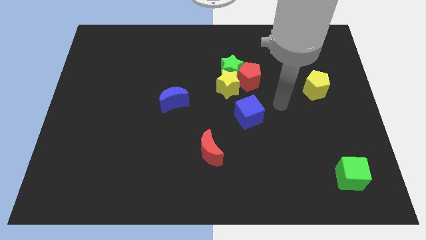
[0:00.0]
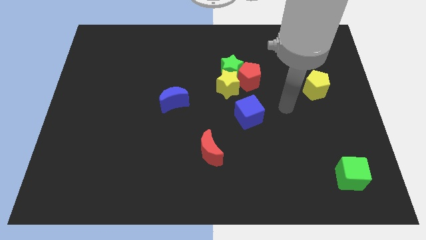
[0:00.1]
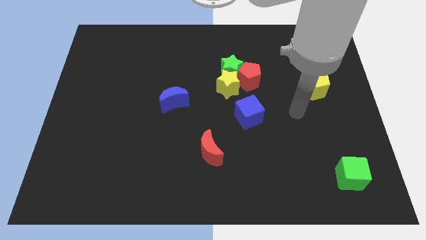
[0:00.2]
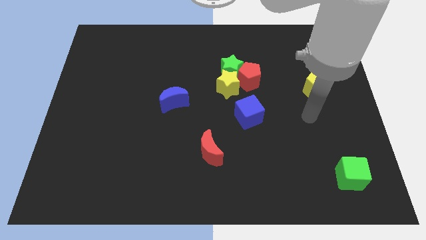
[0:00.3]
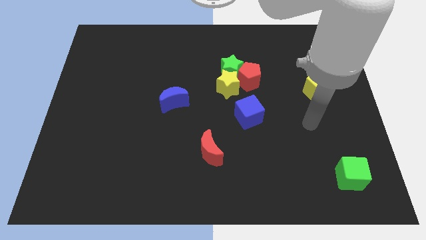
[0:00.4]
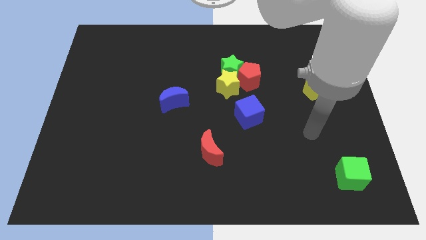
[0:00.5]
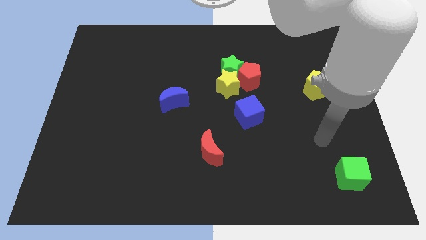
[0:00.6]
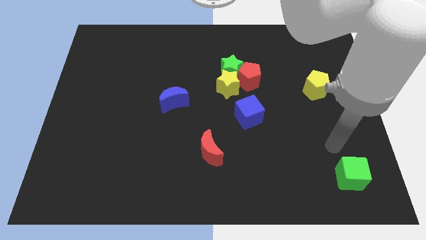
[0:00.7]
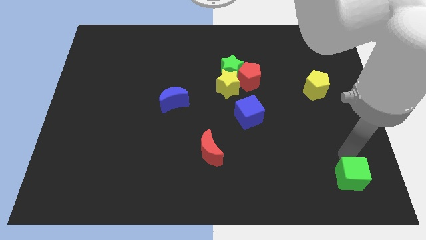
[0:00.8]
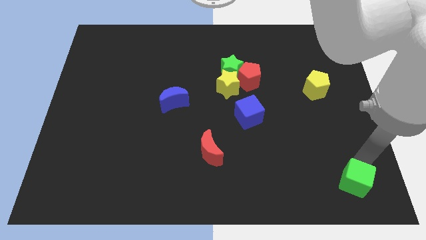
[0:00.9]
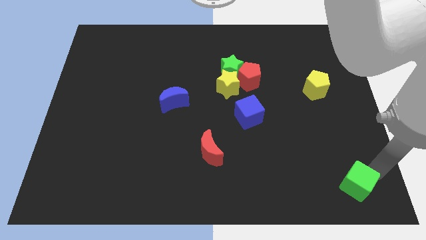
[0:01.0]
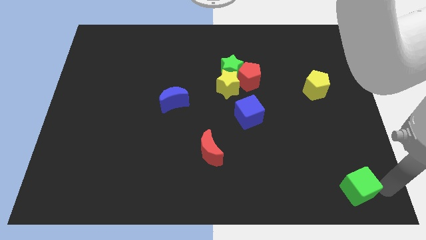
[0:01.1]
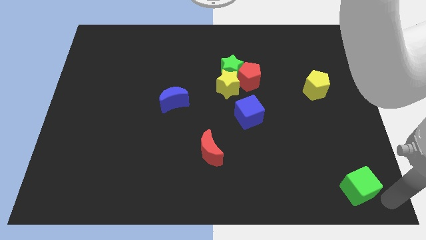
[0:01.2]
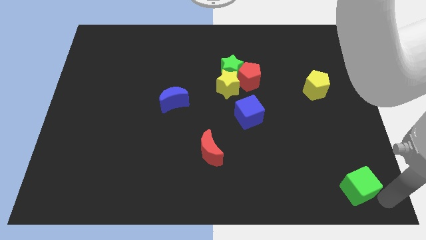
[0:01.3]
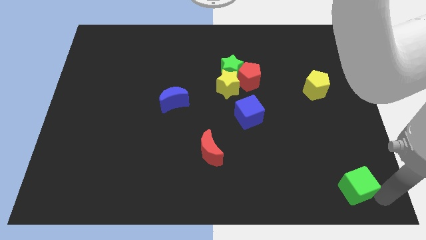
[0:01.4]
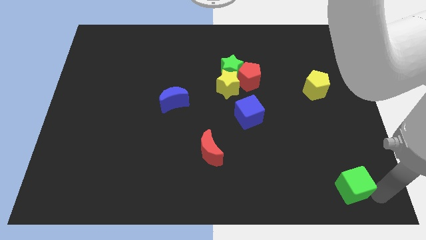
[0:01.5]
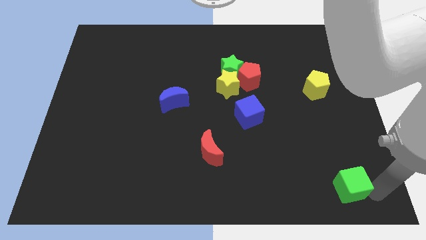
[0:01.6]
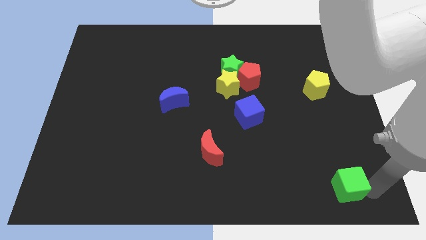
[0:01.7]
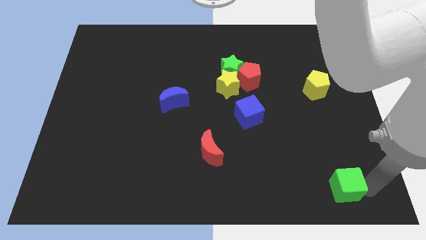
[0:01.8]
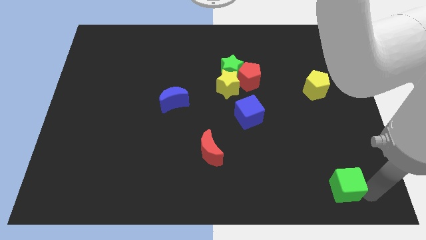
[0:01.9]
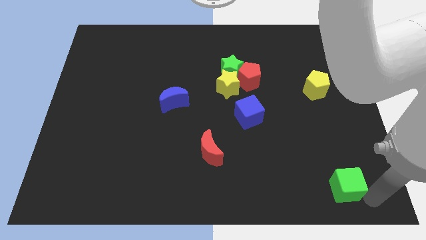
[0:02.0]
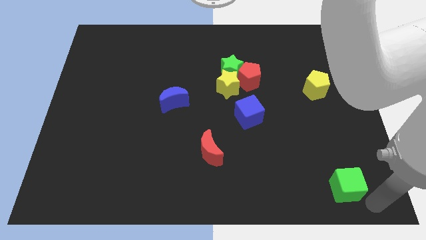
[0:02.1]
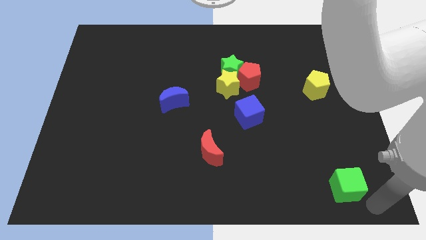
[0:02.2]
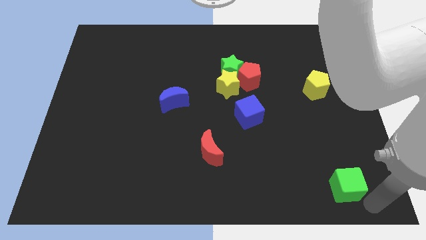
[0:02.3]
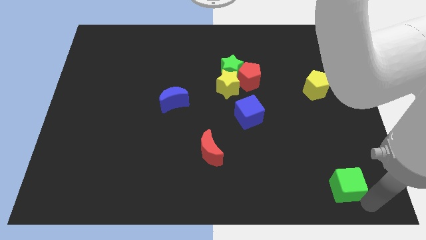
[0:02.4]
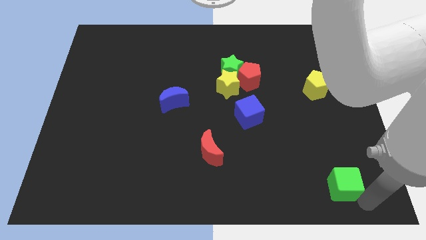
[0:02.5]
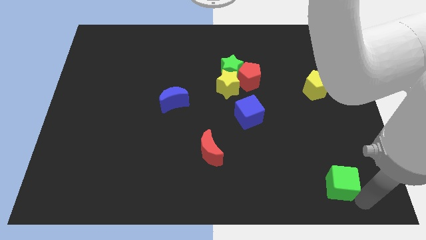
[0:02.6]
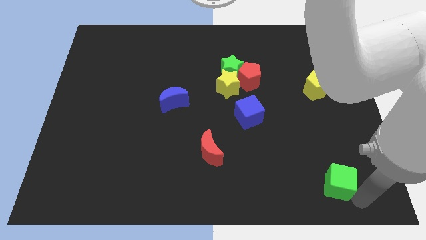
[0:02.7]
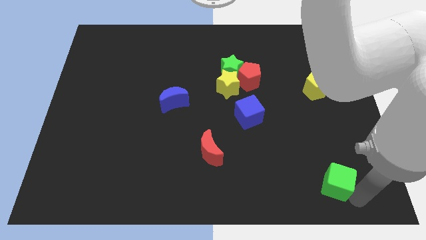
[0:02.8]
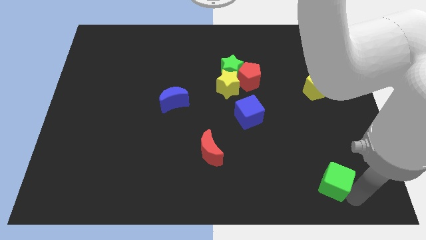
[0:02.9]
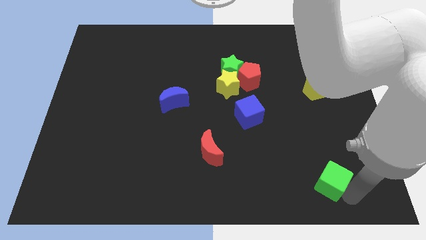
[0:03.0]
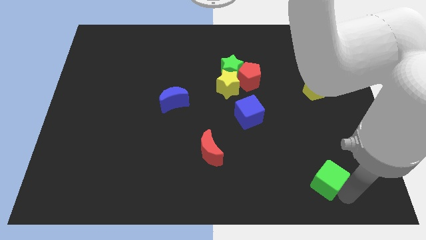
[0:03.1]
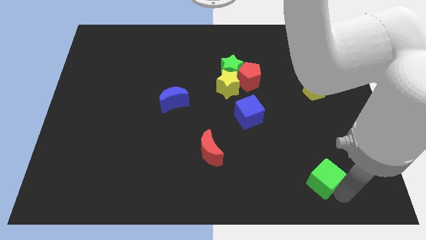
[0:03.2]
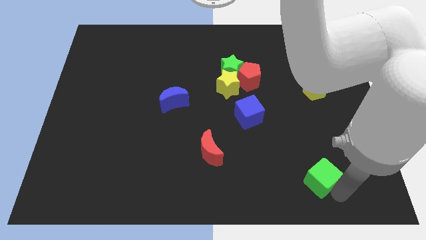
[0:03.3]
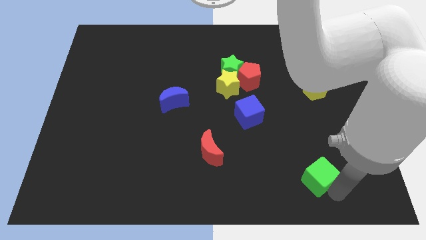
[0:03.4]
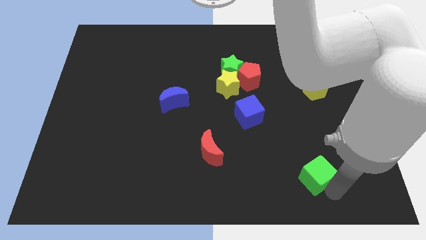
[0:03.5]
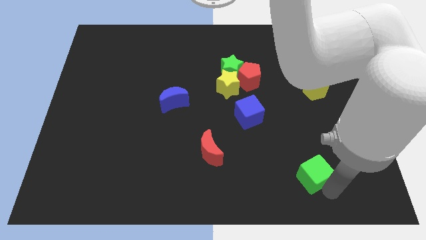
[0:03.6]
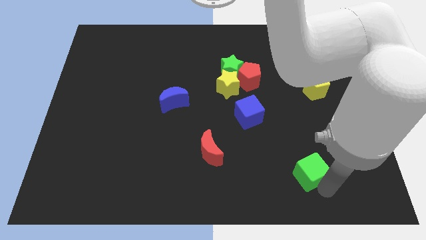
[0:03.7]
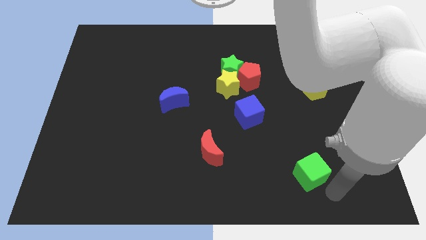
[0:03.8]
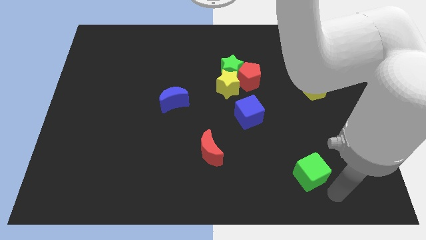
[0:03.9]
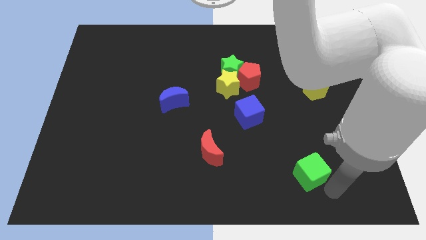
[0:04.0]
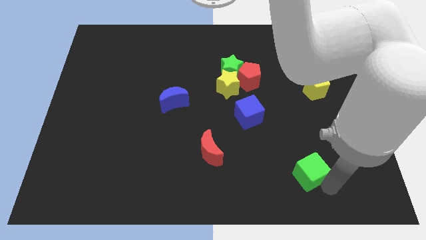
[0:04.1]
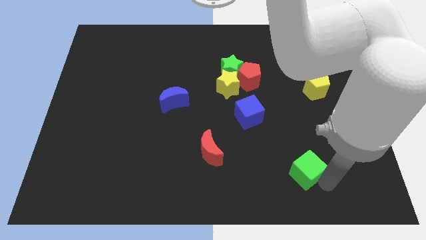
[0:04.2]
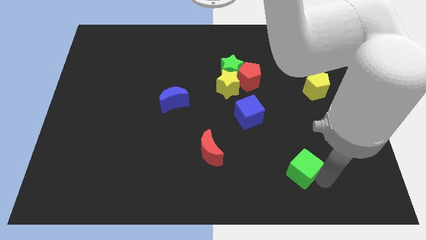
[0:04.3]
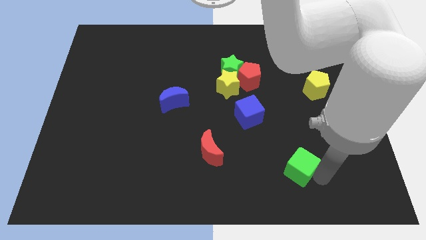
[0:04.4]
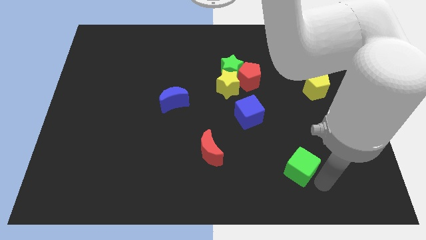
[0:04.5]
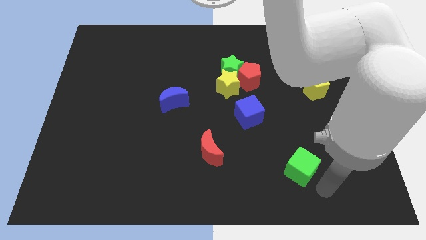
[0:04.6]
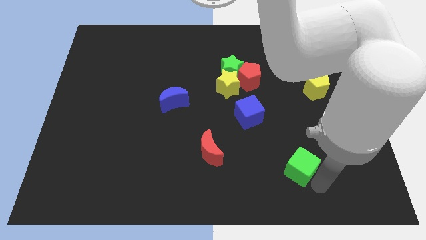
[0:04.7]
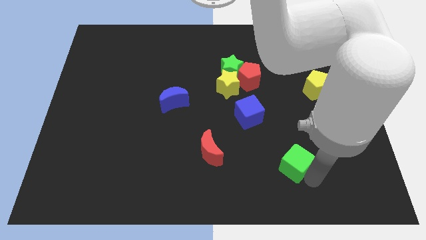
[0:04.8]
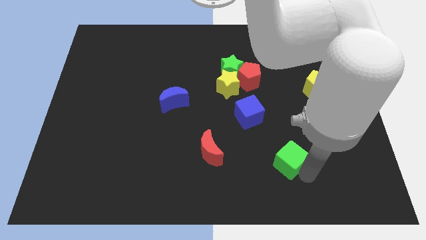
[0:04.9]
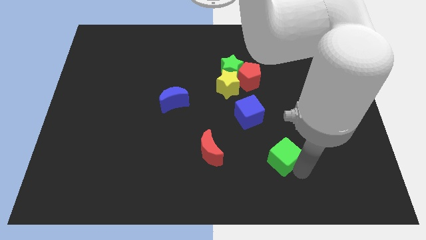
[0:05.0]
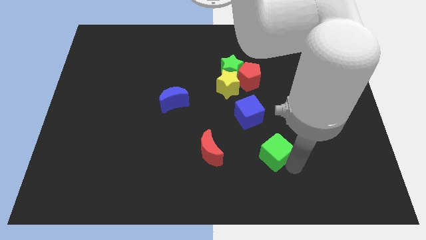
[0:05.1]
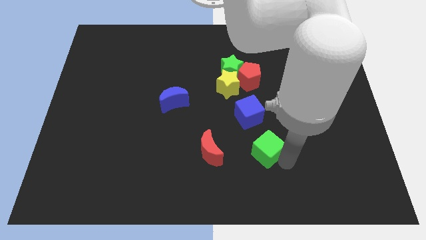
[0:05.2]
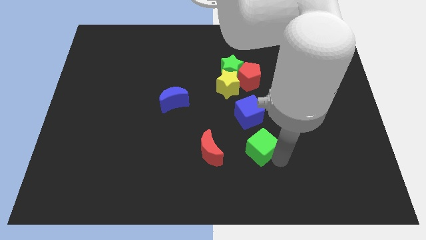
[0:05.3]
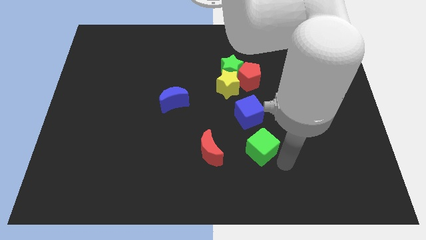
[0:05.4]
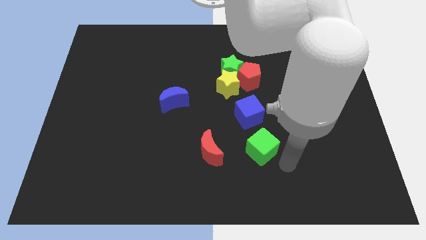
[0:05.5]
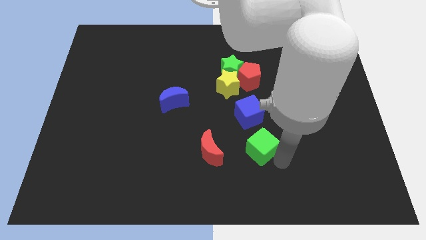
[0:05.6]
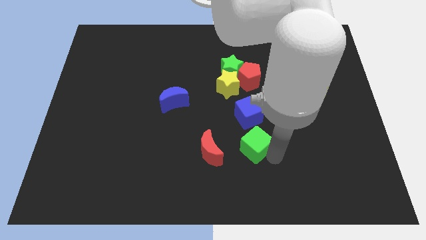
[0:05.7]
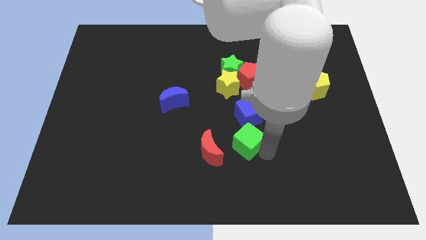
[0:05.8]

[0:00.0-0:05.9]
put the green cube to the top right of the red moon

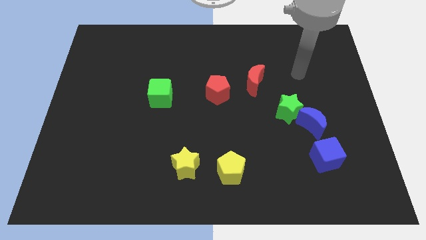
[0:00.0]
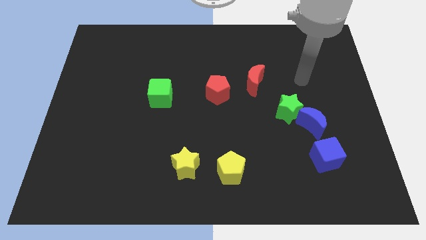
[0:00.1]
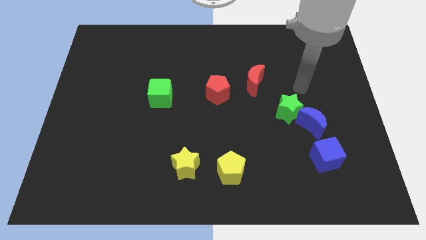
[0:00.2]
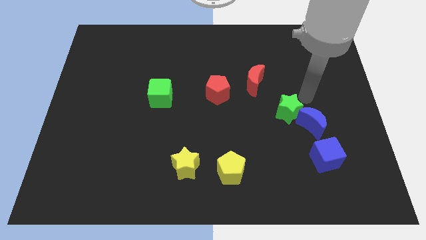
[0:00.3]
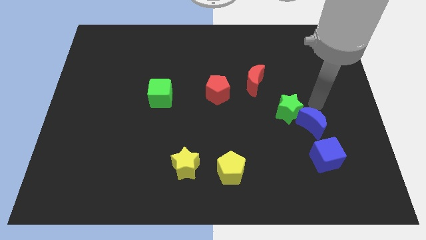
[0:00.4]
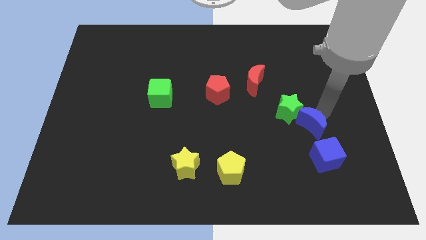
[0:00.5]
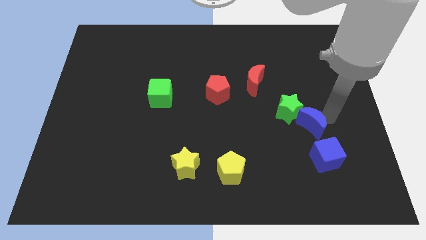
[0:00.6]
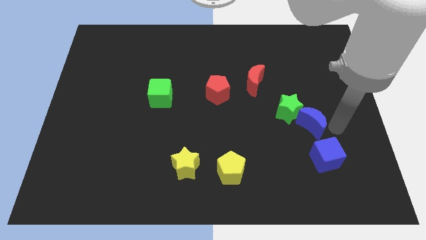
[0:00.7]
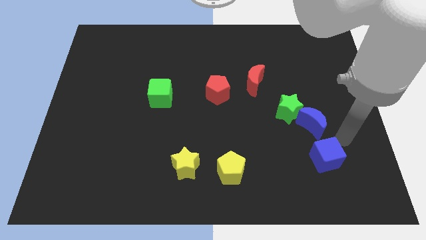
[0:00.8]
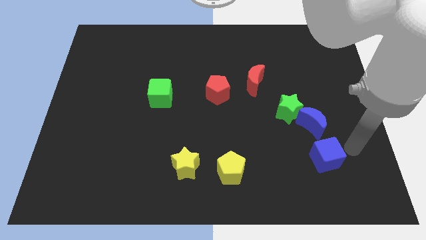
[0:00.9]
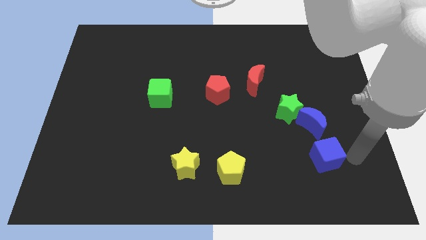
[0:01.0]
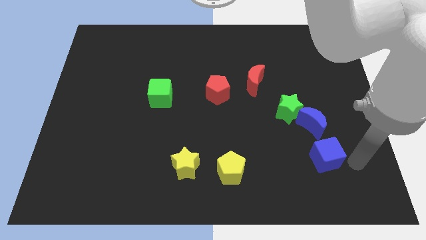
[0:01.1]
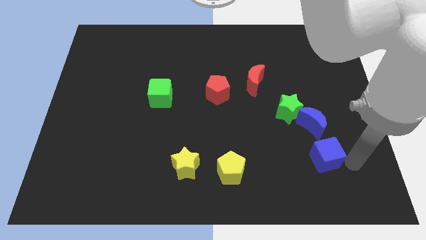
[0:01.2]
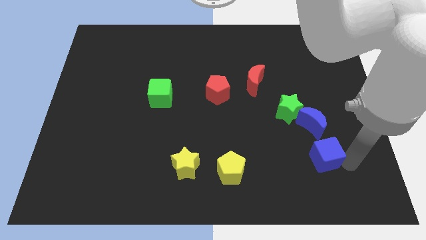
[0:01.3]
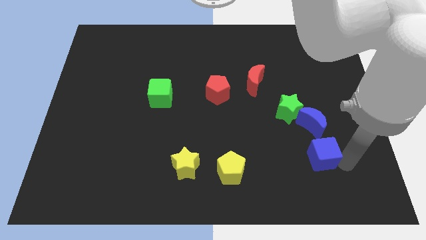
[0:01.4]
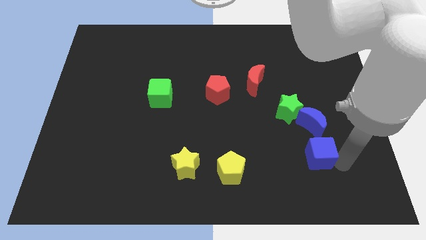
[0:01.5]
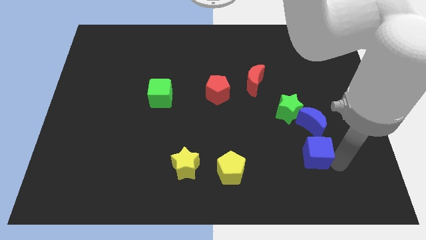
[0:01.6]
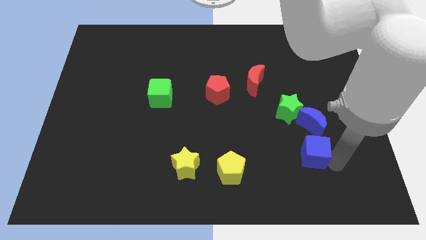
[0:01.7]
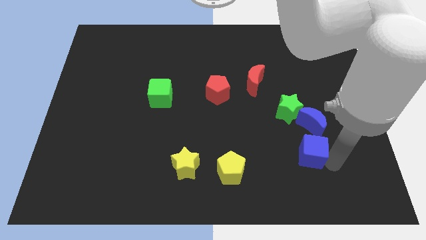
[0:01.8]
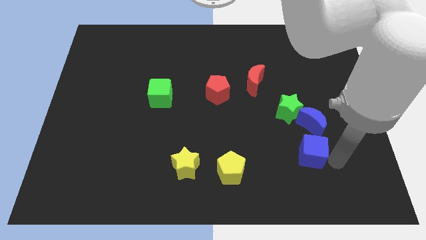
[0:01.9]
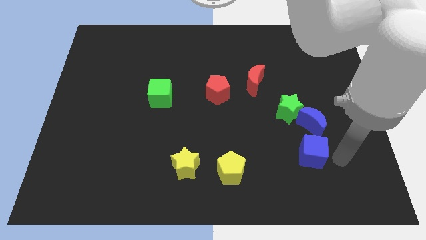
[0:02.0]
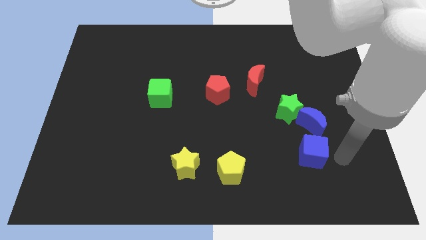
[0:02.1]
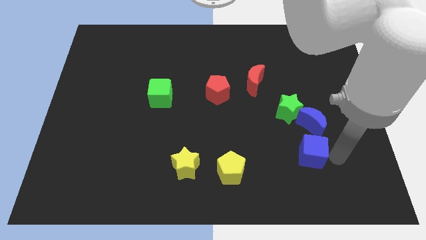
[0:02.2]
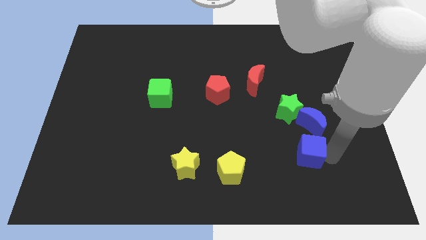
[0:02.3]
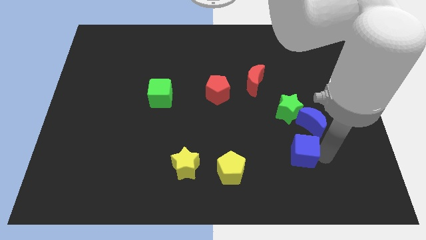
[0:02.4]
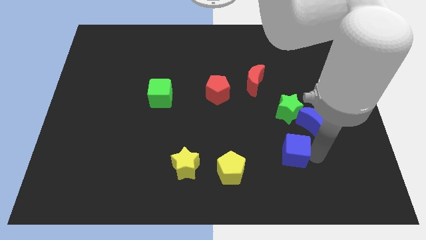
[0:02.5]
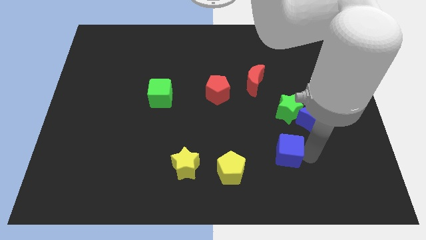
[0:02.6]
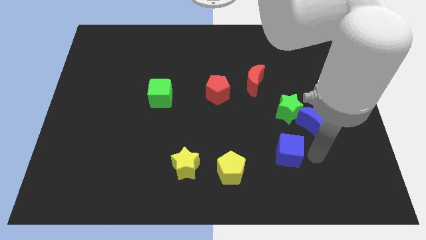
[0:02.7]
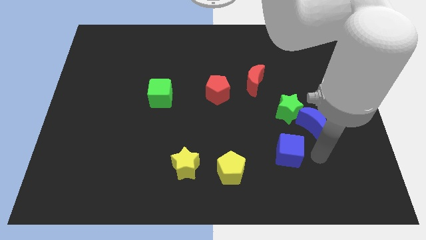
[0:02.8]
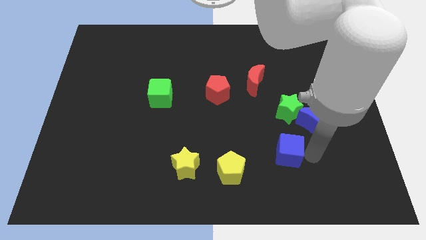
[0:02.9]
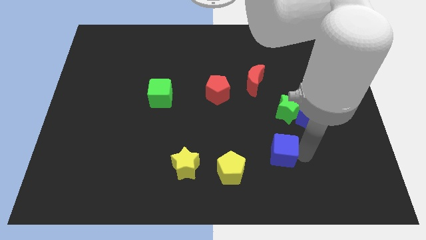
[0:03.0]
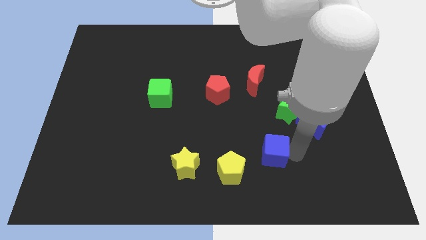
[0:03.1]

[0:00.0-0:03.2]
move the blue cube to the top right of the yellow pentagon
